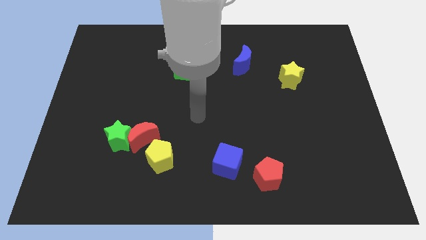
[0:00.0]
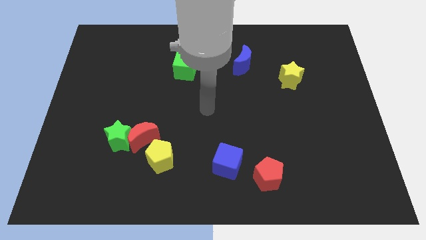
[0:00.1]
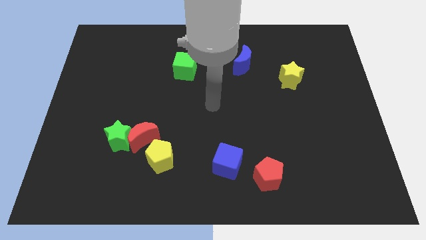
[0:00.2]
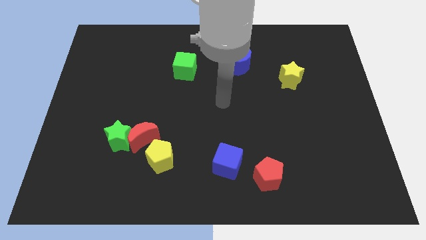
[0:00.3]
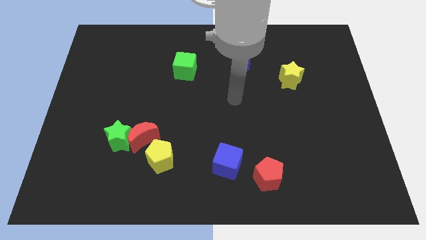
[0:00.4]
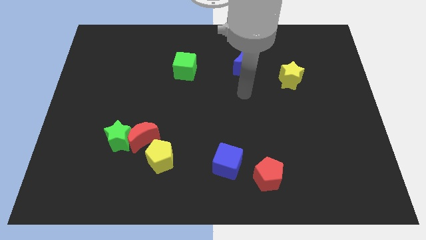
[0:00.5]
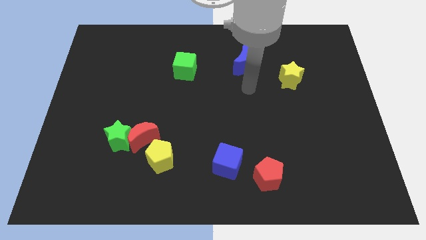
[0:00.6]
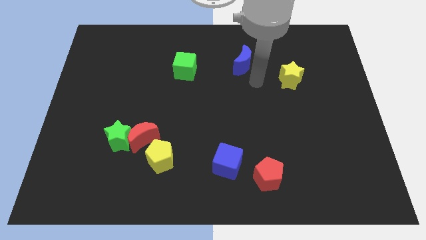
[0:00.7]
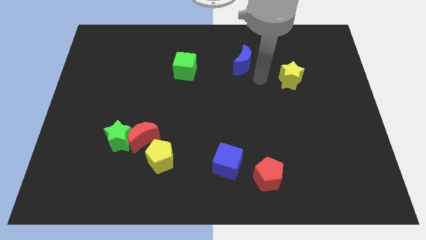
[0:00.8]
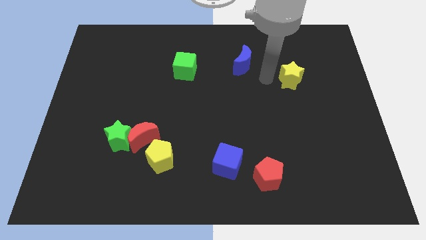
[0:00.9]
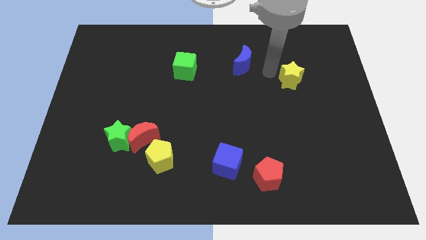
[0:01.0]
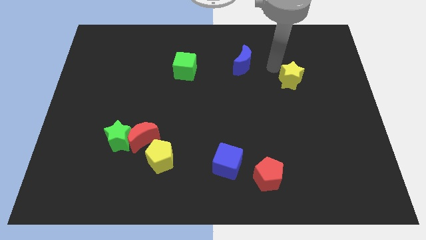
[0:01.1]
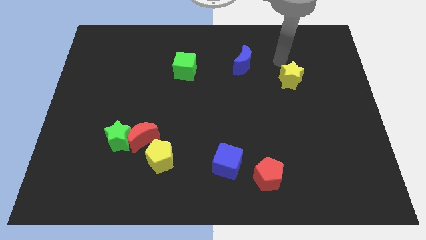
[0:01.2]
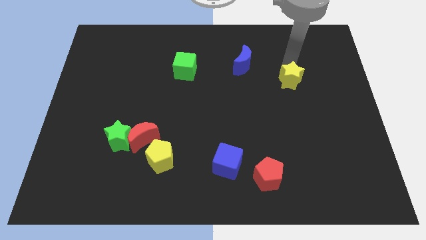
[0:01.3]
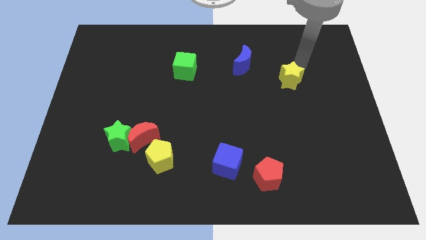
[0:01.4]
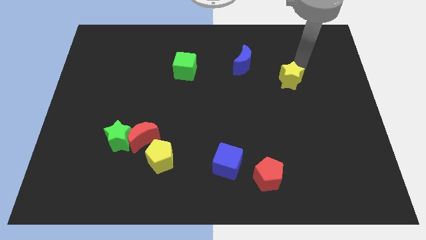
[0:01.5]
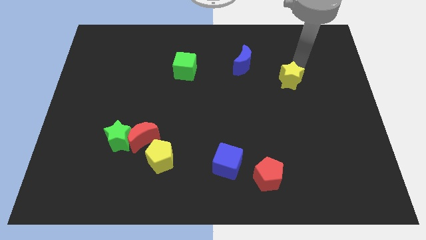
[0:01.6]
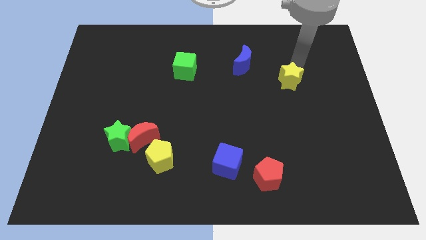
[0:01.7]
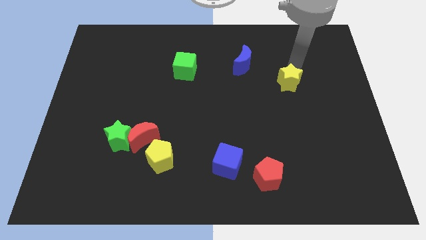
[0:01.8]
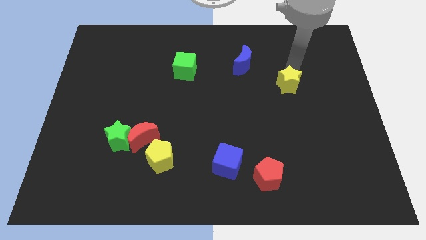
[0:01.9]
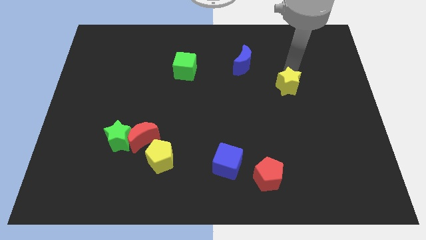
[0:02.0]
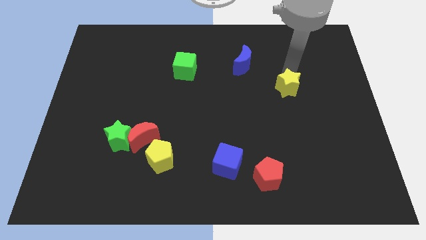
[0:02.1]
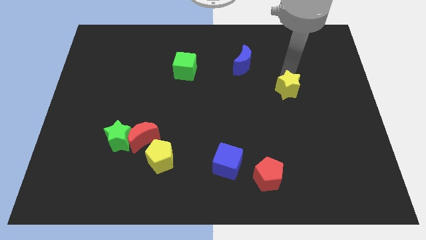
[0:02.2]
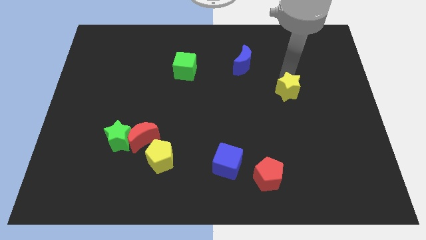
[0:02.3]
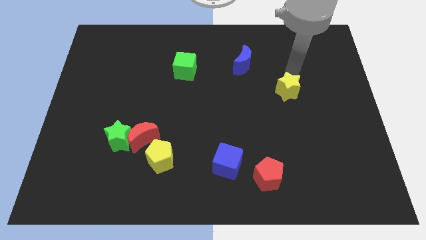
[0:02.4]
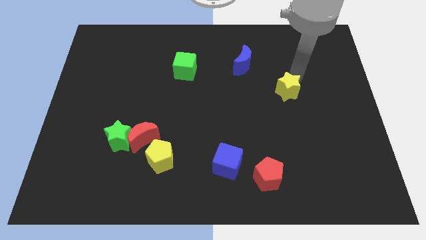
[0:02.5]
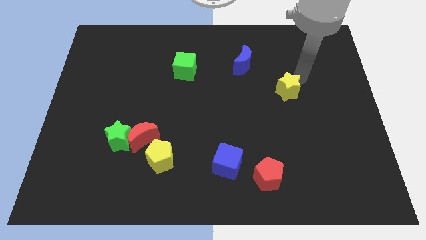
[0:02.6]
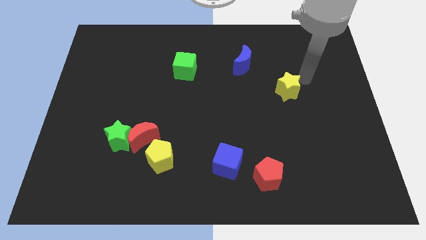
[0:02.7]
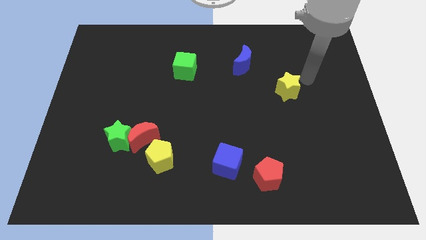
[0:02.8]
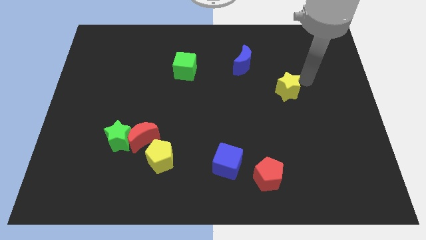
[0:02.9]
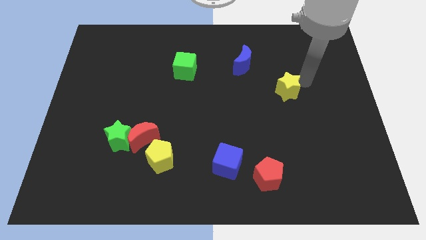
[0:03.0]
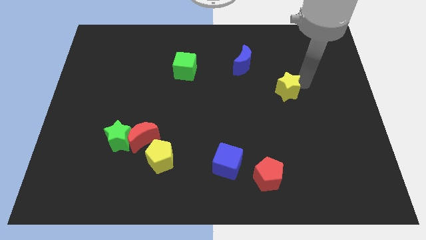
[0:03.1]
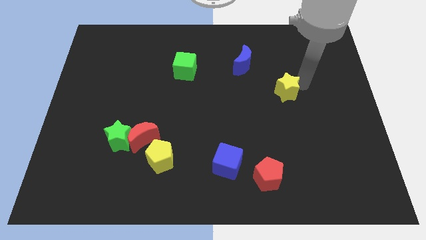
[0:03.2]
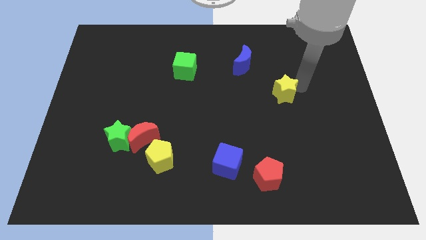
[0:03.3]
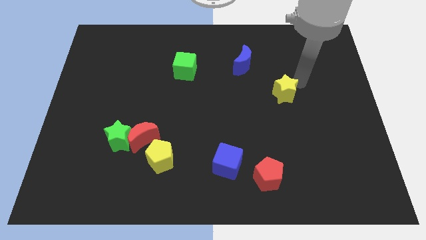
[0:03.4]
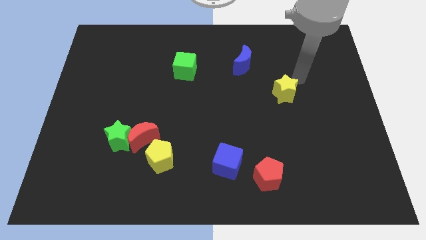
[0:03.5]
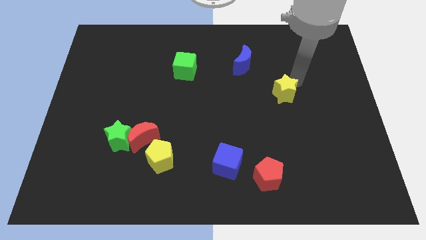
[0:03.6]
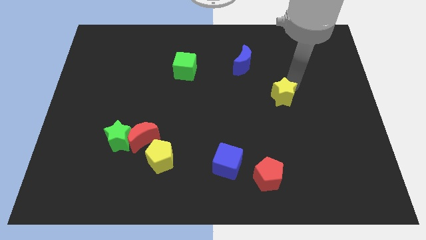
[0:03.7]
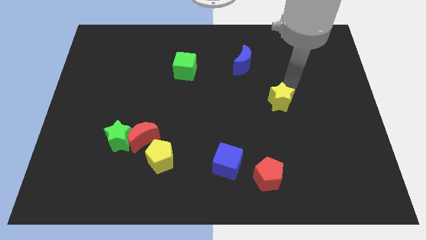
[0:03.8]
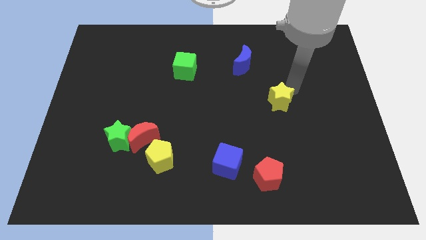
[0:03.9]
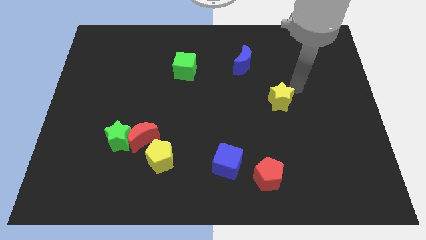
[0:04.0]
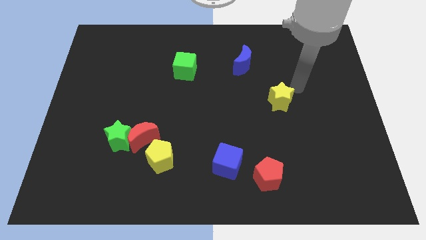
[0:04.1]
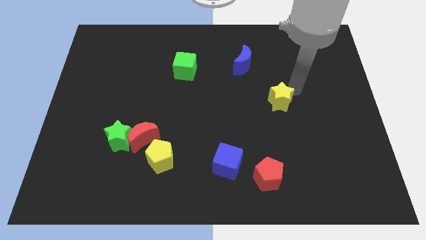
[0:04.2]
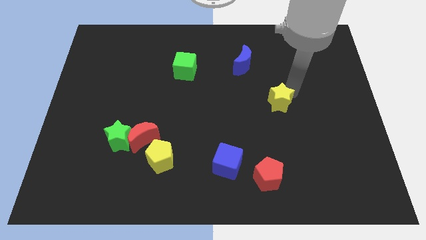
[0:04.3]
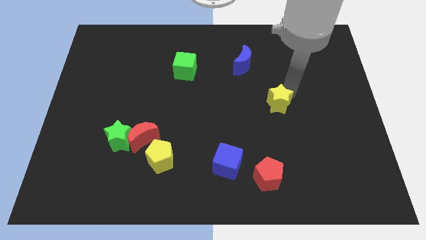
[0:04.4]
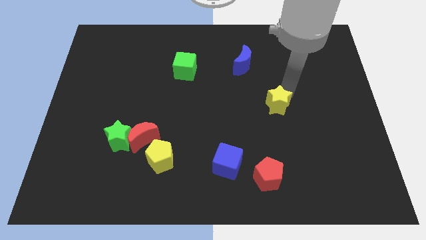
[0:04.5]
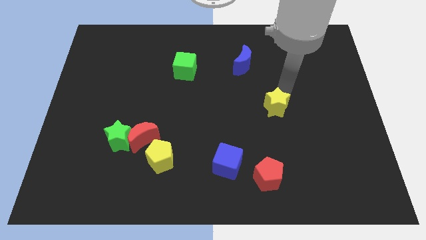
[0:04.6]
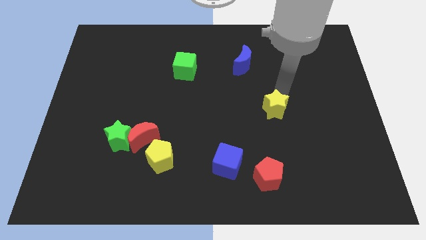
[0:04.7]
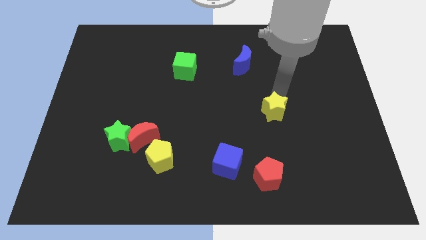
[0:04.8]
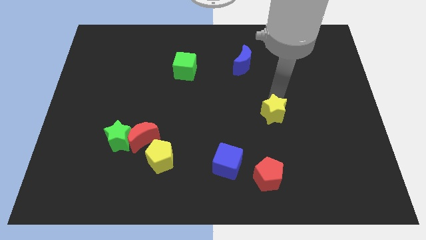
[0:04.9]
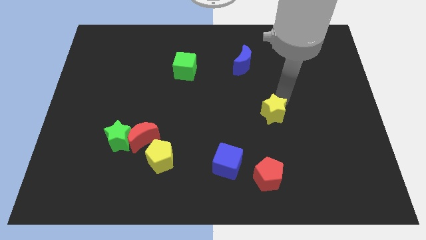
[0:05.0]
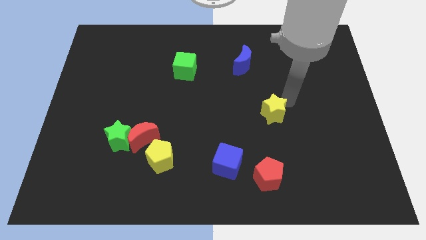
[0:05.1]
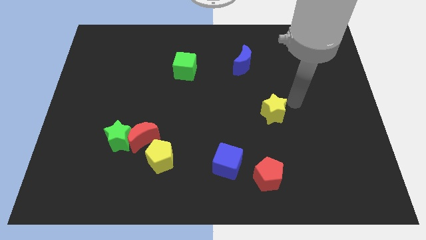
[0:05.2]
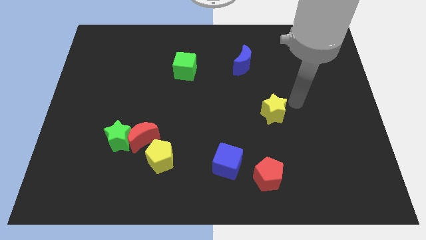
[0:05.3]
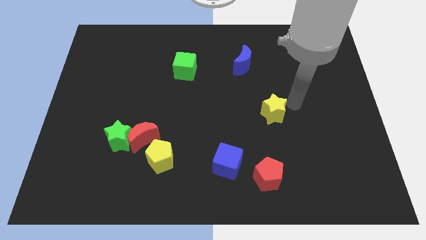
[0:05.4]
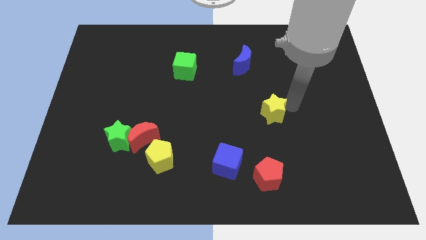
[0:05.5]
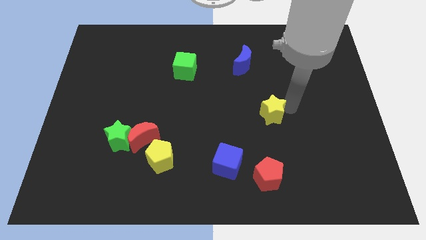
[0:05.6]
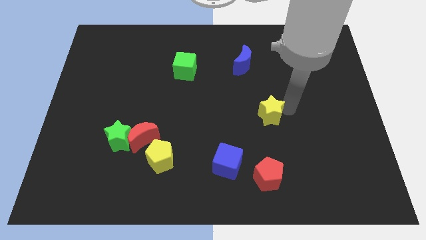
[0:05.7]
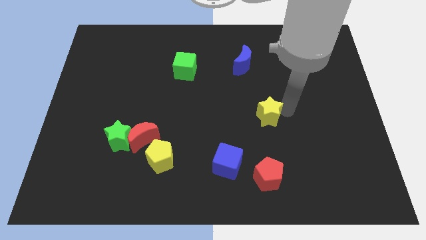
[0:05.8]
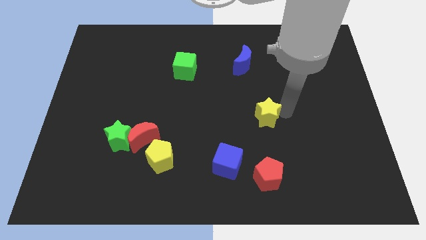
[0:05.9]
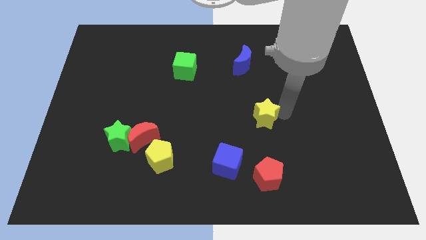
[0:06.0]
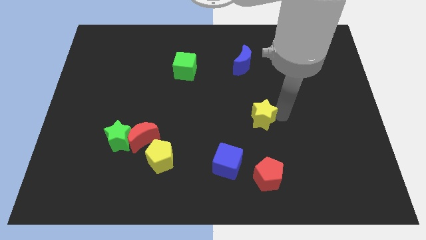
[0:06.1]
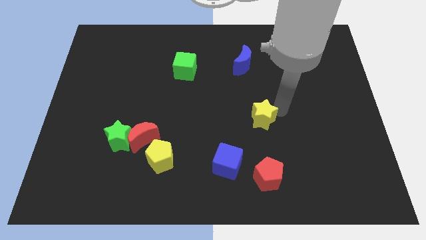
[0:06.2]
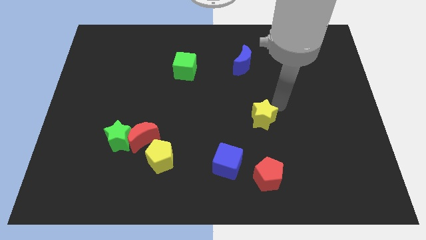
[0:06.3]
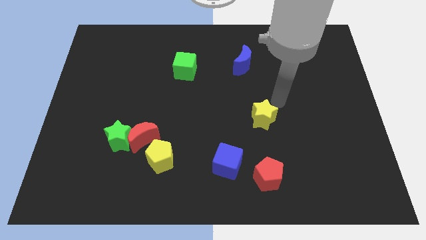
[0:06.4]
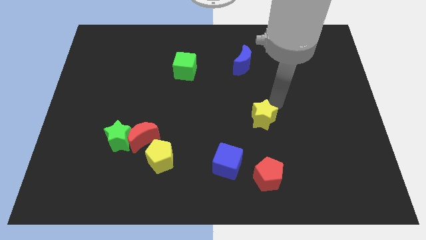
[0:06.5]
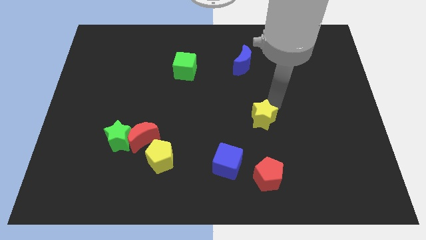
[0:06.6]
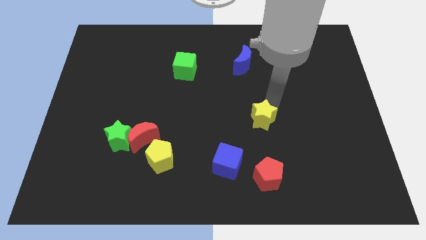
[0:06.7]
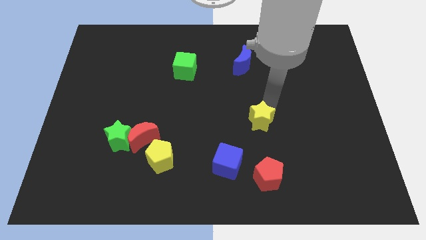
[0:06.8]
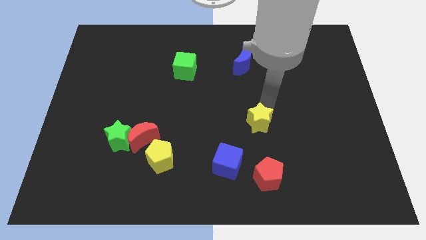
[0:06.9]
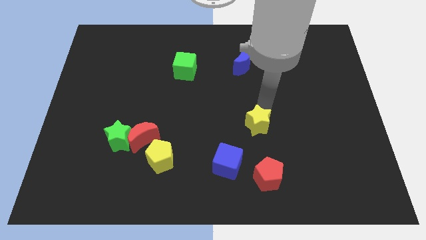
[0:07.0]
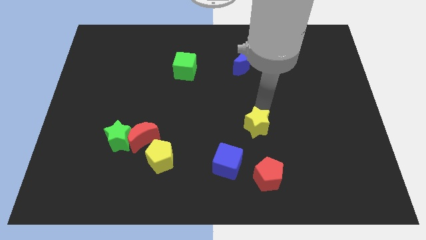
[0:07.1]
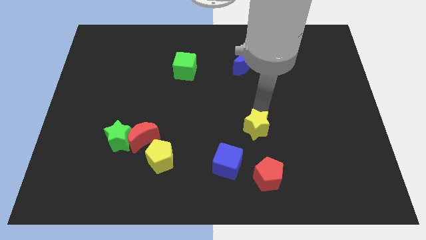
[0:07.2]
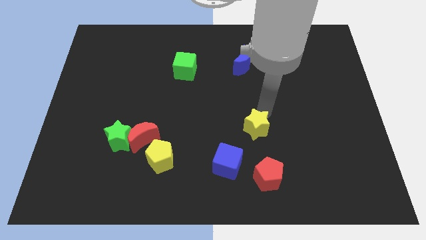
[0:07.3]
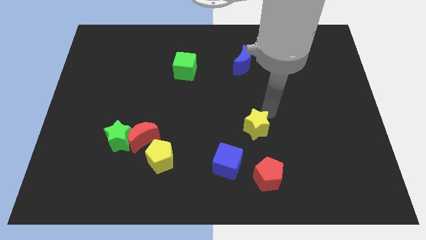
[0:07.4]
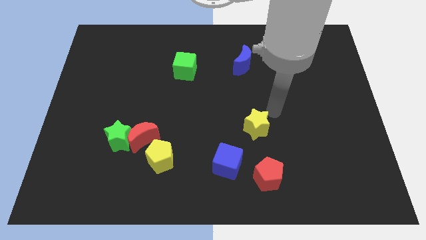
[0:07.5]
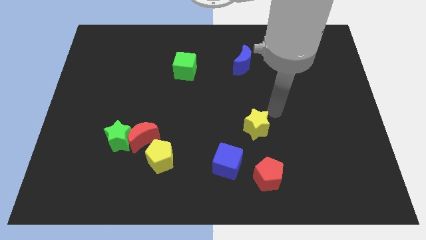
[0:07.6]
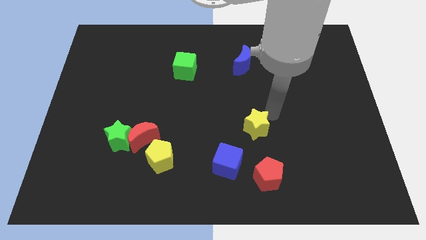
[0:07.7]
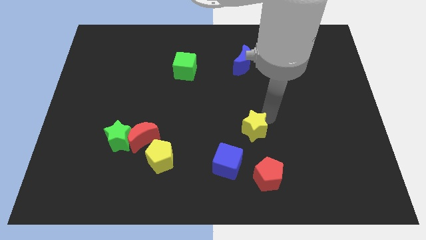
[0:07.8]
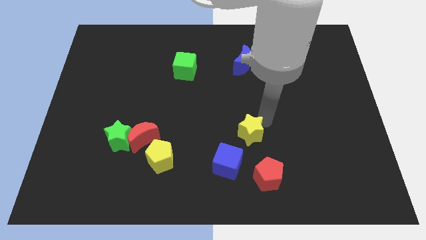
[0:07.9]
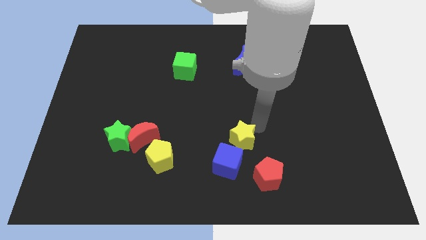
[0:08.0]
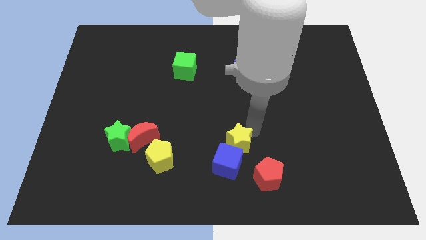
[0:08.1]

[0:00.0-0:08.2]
slide the yellow star close to the blue cube
